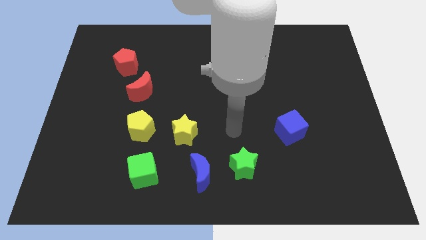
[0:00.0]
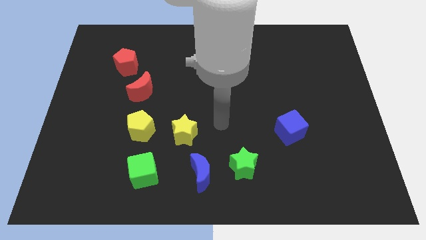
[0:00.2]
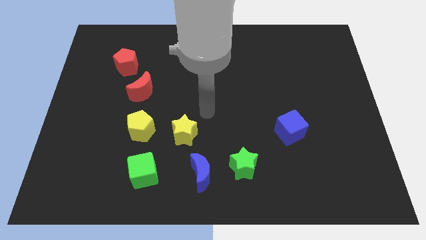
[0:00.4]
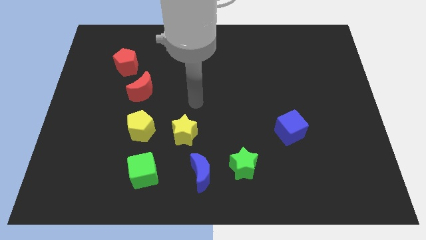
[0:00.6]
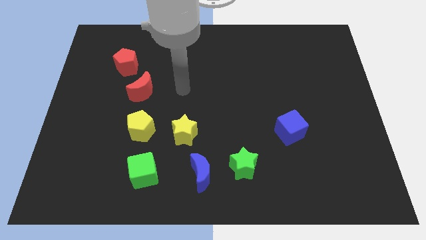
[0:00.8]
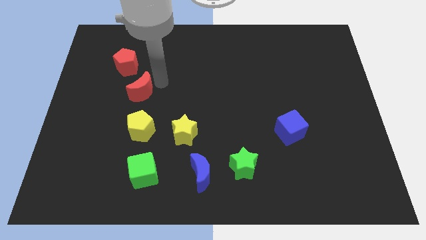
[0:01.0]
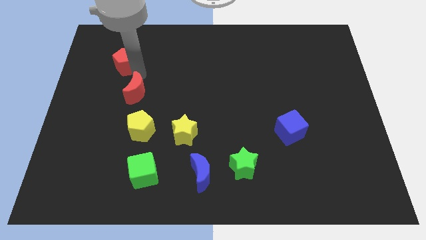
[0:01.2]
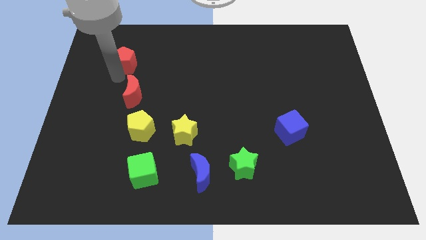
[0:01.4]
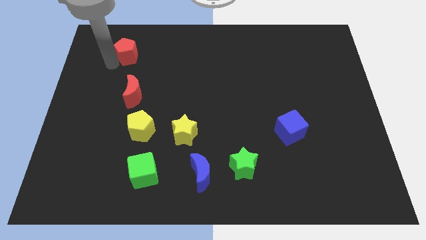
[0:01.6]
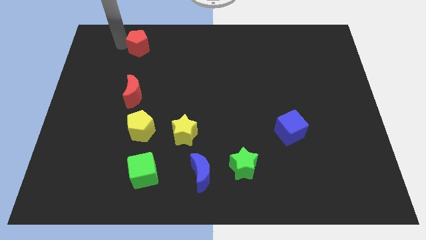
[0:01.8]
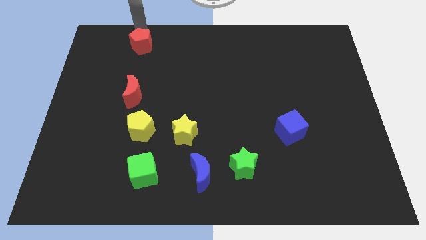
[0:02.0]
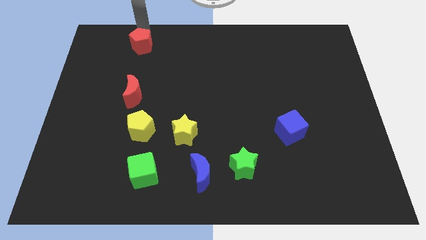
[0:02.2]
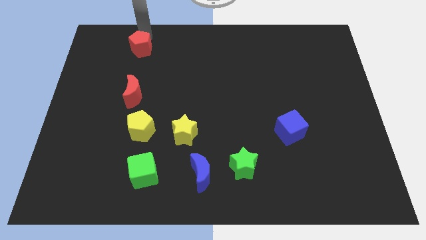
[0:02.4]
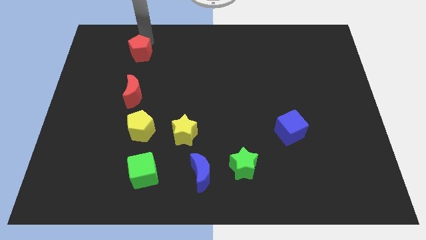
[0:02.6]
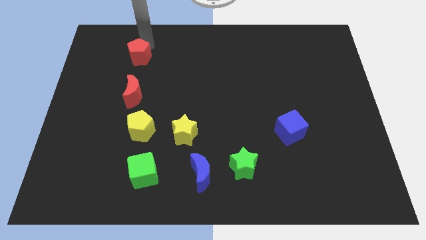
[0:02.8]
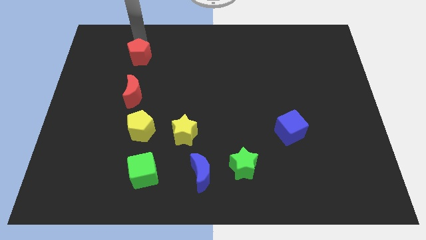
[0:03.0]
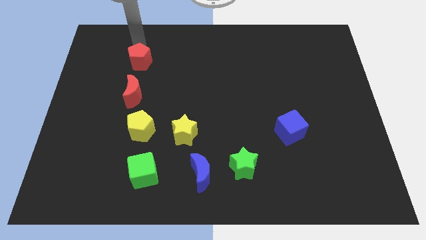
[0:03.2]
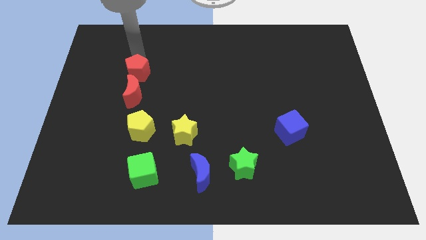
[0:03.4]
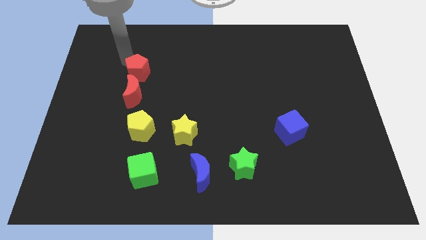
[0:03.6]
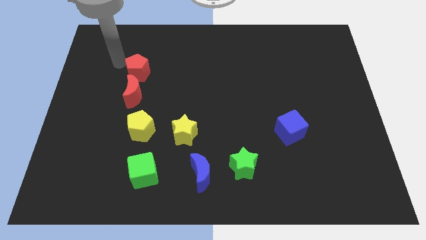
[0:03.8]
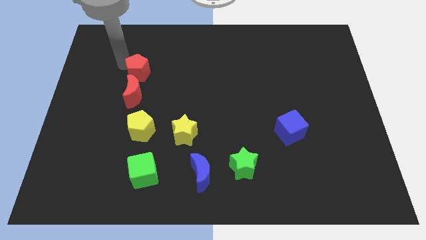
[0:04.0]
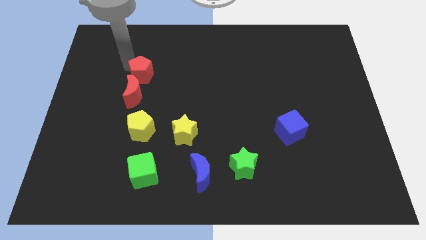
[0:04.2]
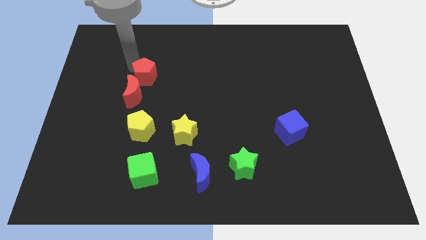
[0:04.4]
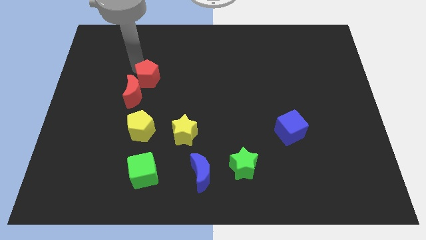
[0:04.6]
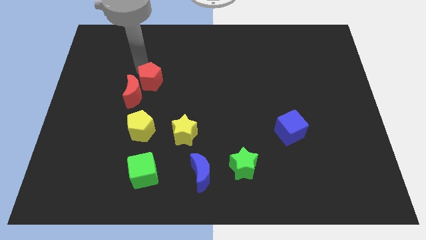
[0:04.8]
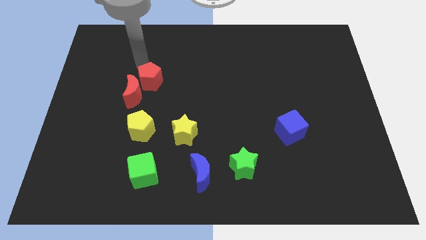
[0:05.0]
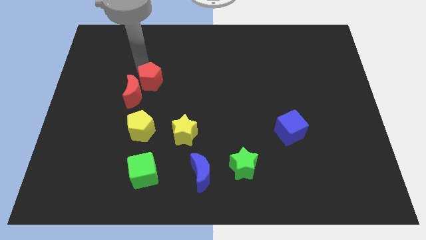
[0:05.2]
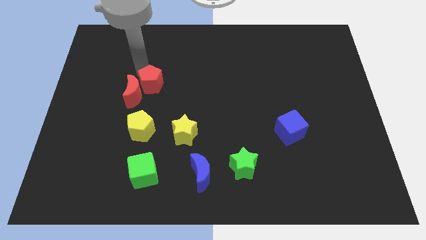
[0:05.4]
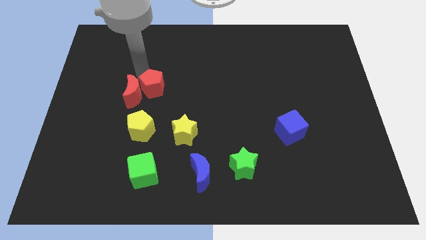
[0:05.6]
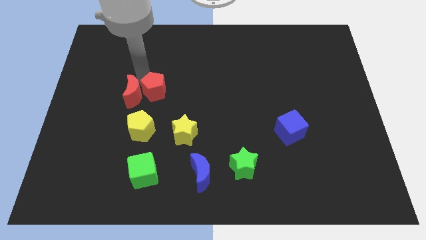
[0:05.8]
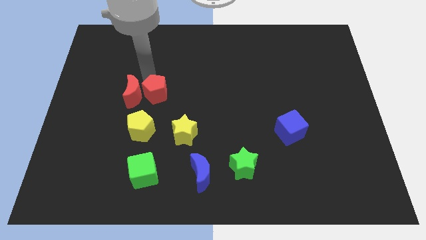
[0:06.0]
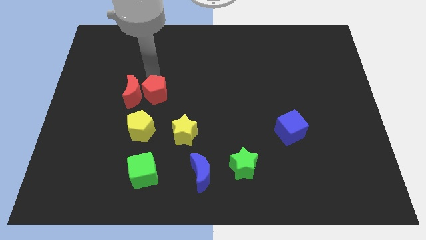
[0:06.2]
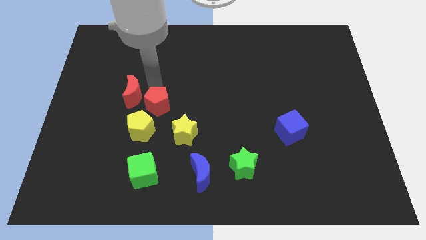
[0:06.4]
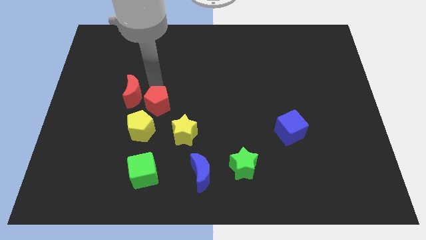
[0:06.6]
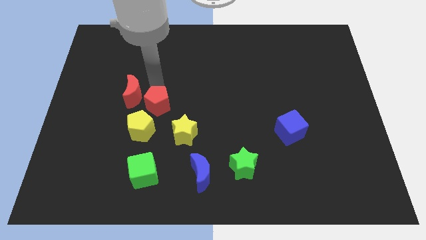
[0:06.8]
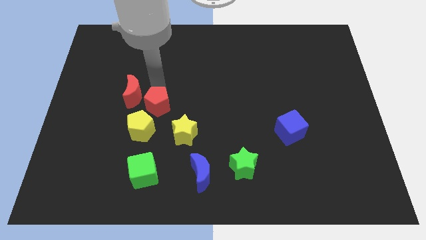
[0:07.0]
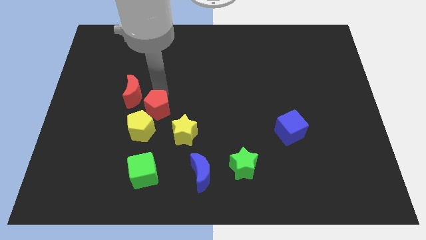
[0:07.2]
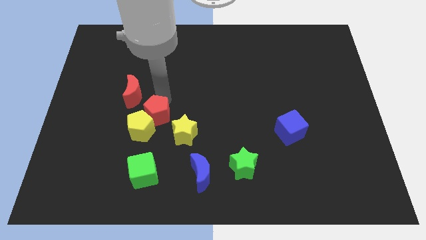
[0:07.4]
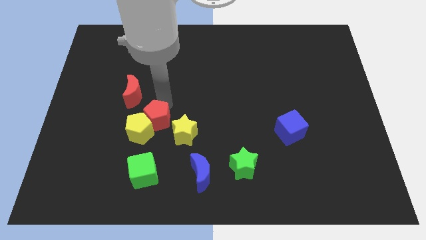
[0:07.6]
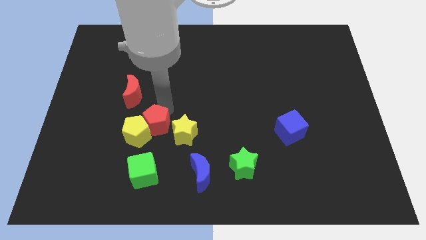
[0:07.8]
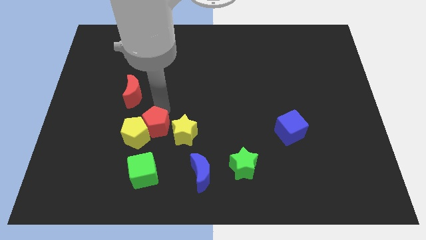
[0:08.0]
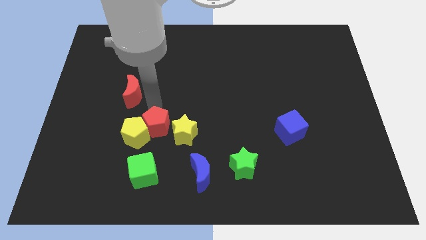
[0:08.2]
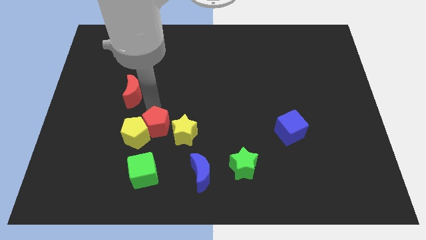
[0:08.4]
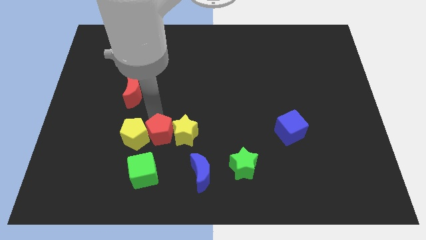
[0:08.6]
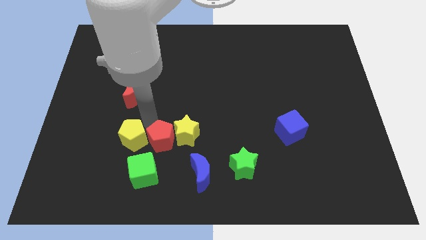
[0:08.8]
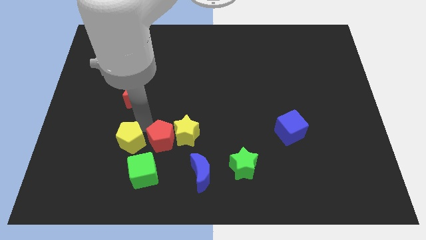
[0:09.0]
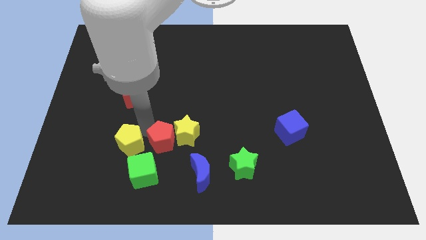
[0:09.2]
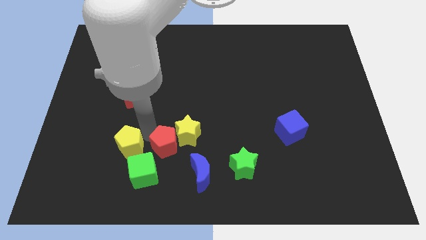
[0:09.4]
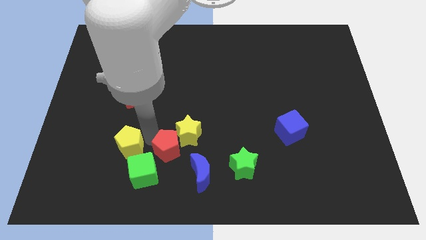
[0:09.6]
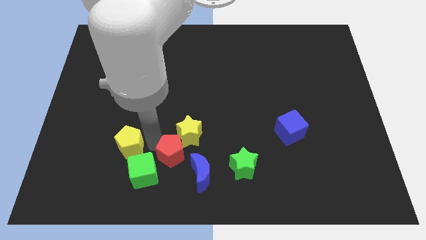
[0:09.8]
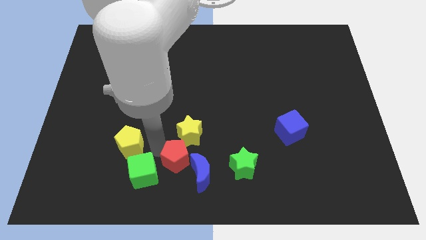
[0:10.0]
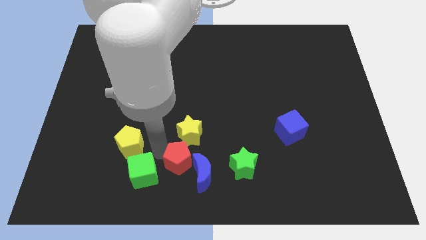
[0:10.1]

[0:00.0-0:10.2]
move the red pentagon next to the blue moon

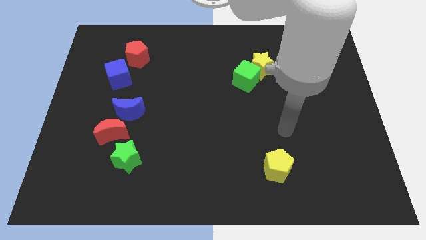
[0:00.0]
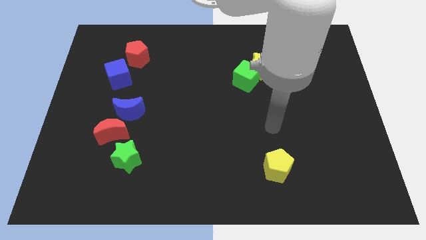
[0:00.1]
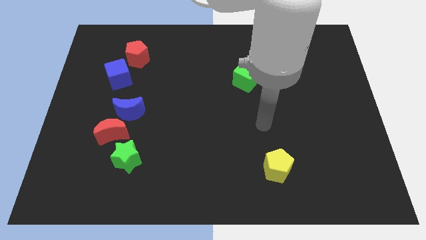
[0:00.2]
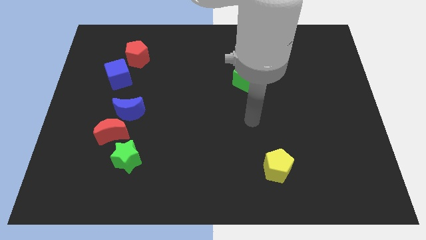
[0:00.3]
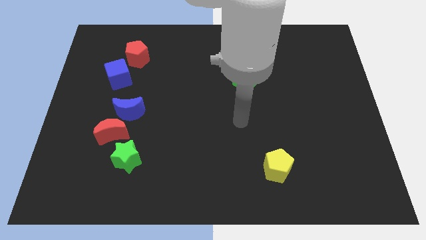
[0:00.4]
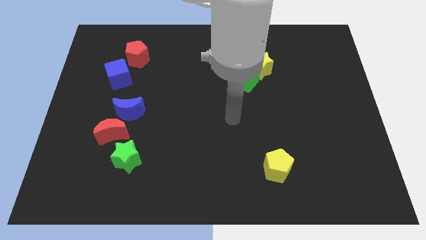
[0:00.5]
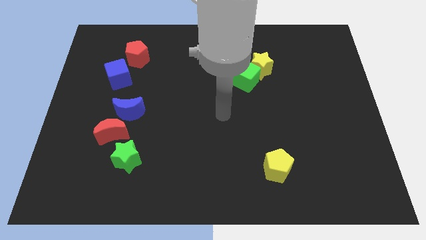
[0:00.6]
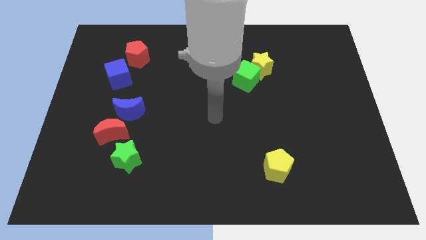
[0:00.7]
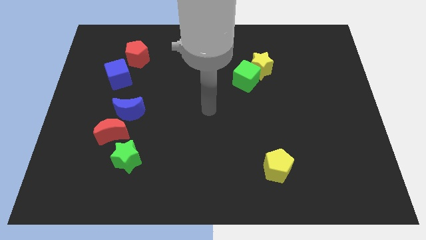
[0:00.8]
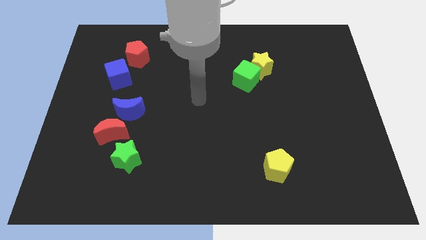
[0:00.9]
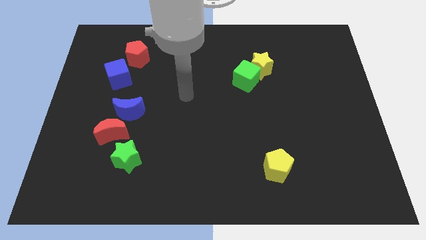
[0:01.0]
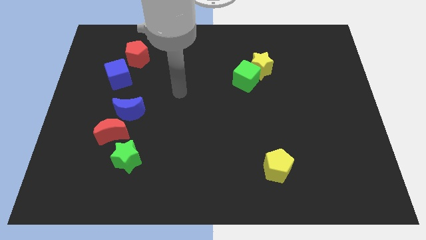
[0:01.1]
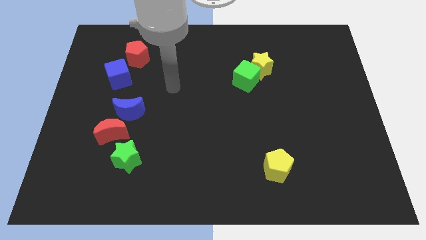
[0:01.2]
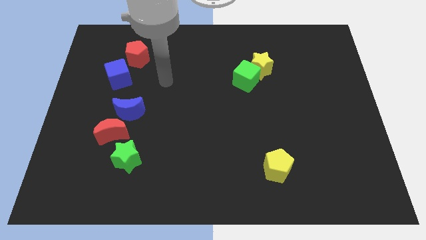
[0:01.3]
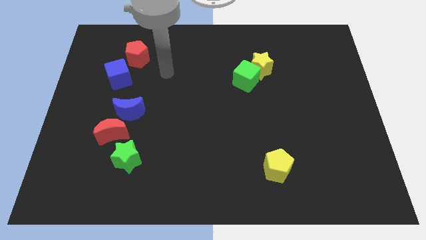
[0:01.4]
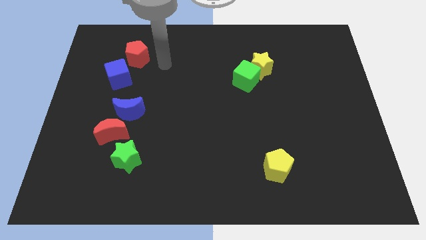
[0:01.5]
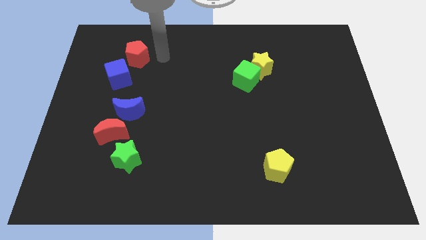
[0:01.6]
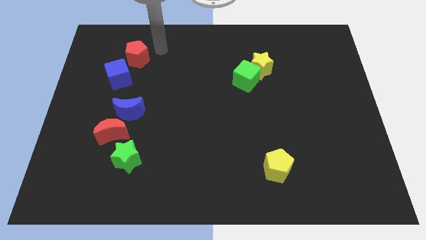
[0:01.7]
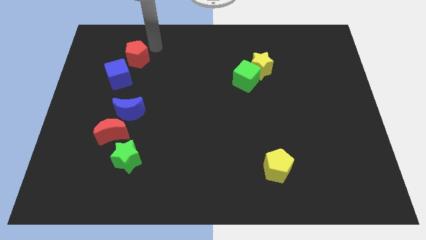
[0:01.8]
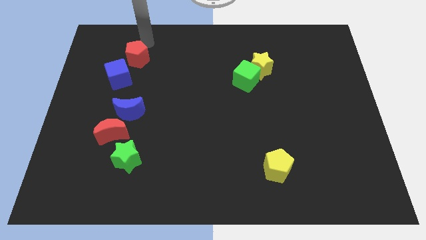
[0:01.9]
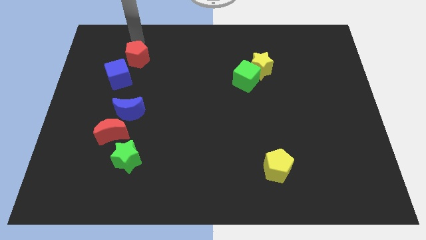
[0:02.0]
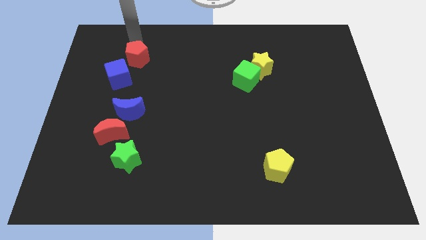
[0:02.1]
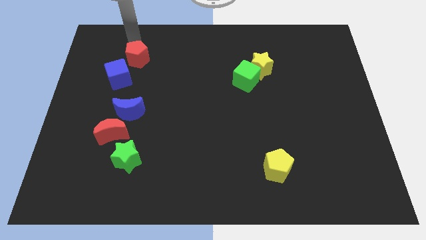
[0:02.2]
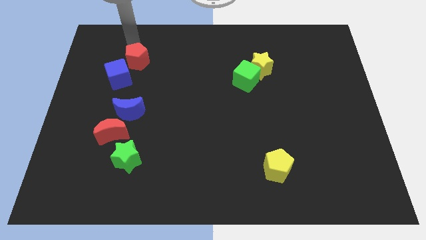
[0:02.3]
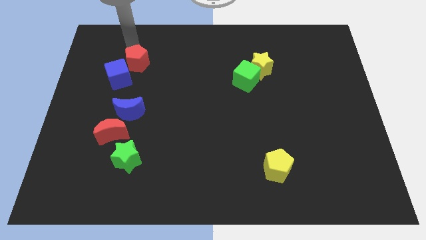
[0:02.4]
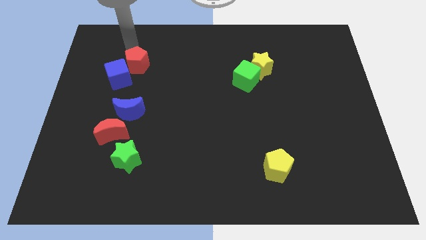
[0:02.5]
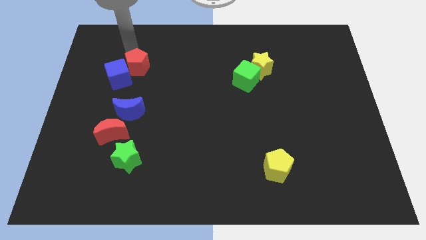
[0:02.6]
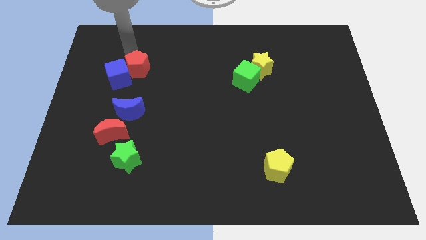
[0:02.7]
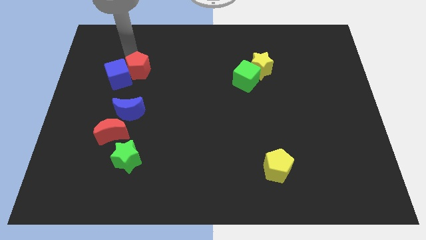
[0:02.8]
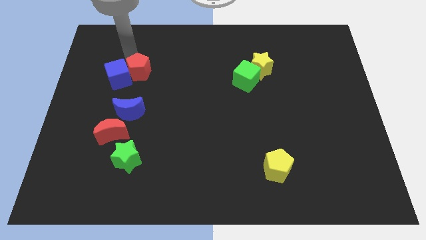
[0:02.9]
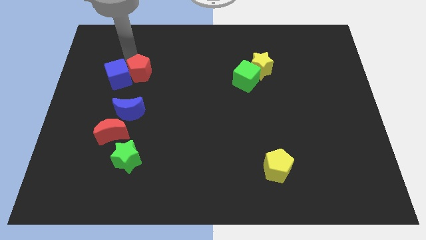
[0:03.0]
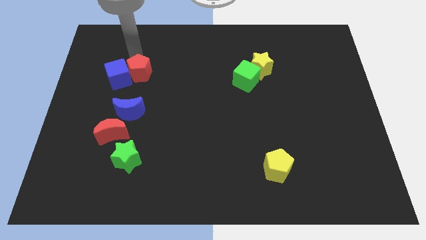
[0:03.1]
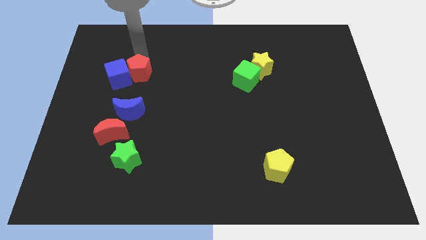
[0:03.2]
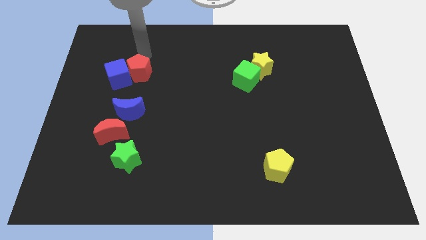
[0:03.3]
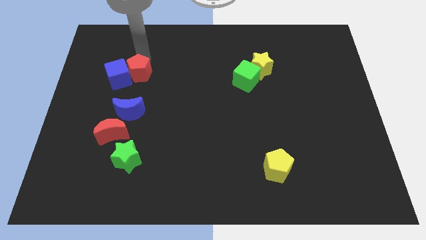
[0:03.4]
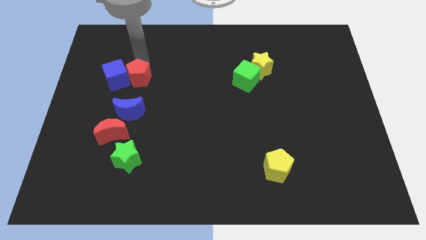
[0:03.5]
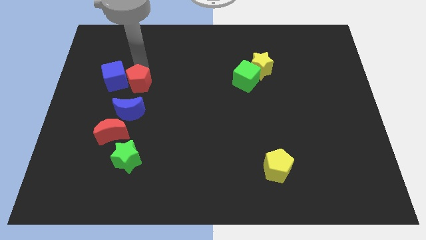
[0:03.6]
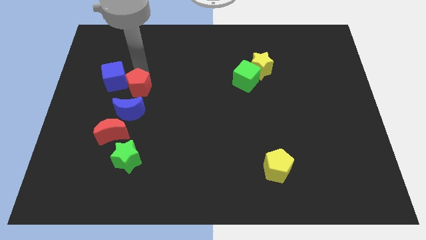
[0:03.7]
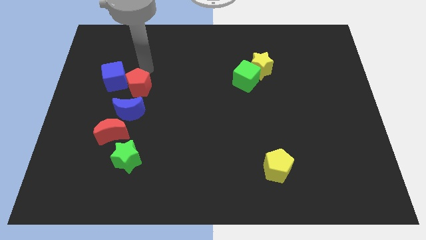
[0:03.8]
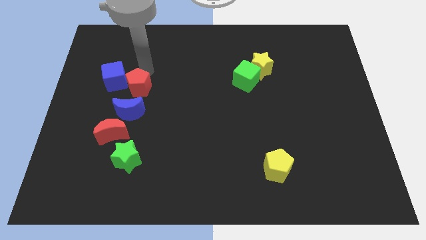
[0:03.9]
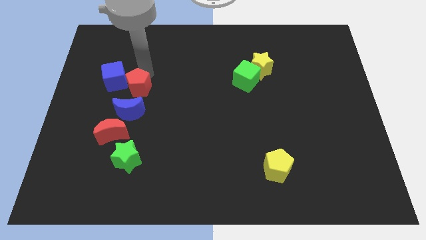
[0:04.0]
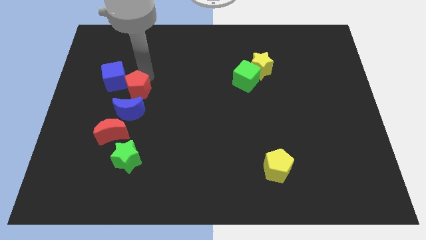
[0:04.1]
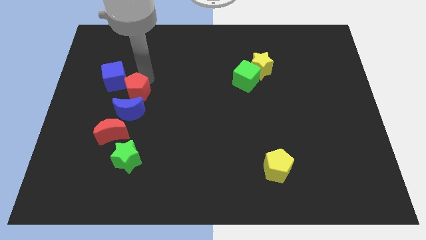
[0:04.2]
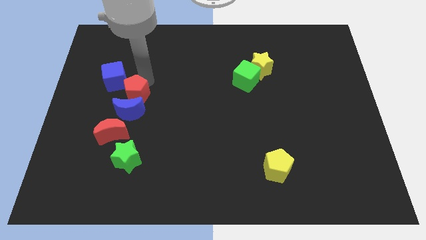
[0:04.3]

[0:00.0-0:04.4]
push the red pentagon towards the blue moon
